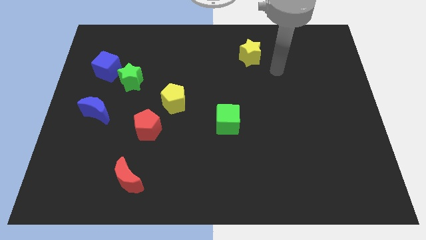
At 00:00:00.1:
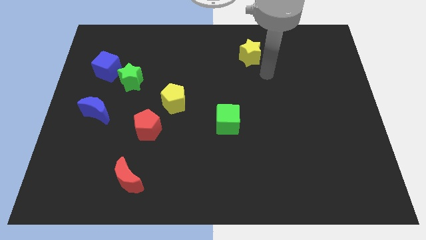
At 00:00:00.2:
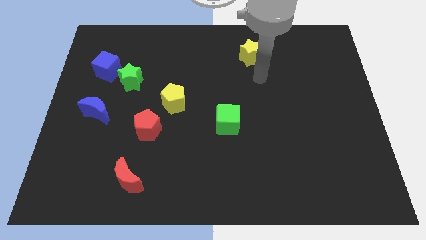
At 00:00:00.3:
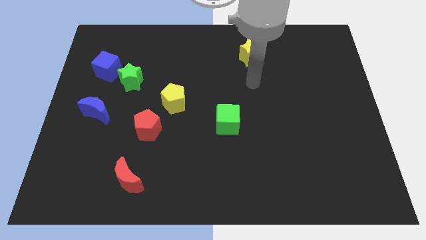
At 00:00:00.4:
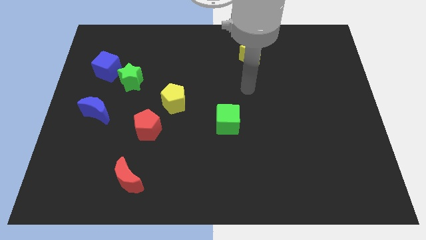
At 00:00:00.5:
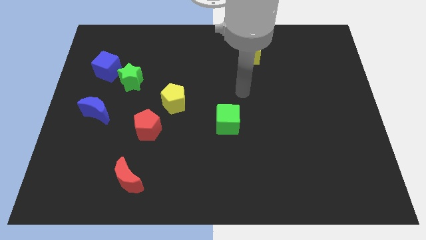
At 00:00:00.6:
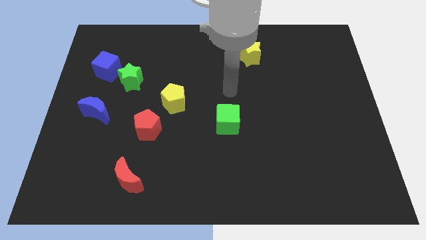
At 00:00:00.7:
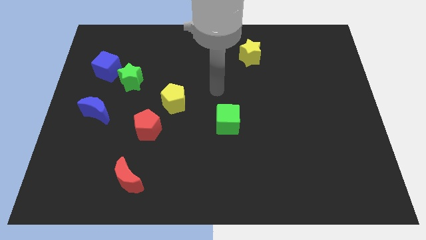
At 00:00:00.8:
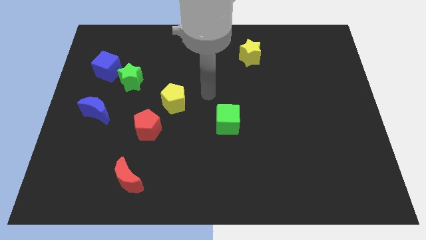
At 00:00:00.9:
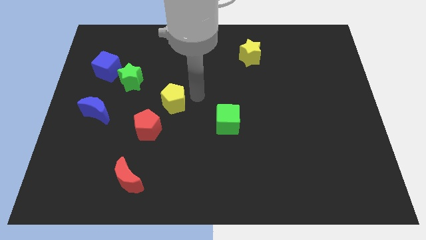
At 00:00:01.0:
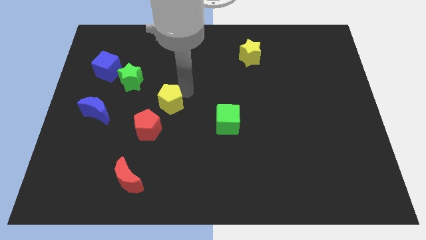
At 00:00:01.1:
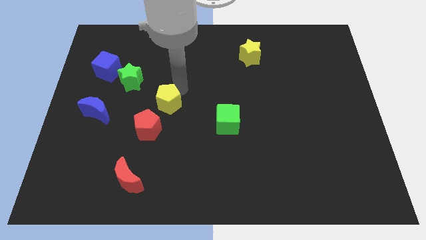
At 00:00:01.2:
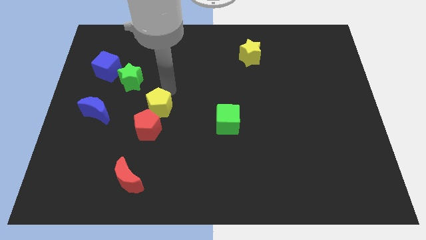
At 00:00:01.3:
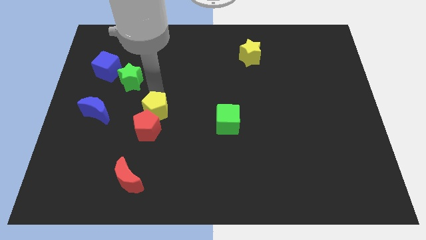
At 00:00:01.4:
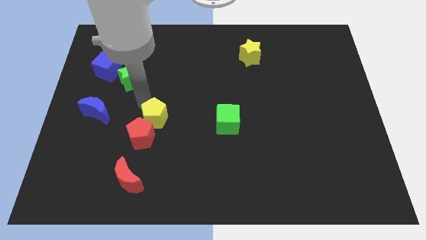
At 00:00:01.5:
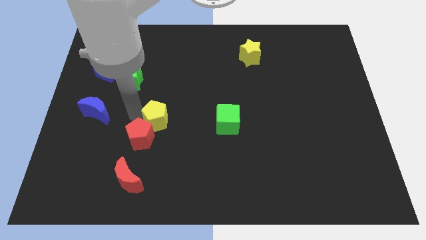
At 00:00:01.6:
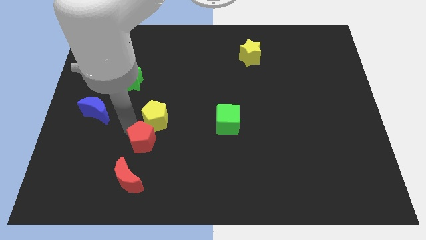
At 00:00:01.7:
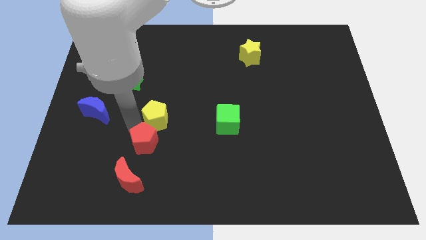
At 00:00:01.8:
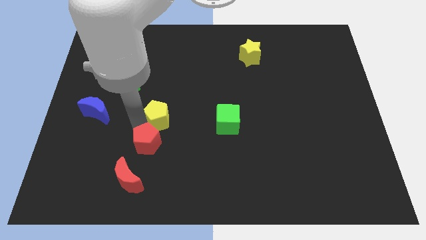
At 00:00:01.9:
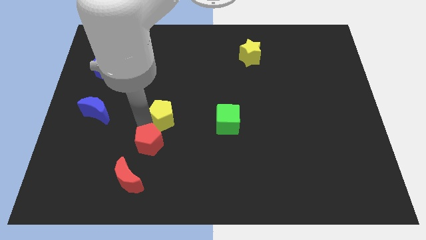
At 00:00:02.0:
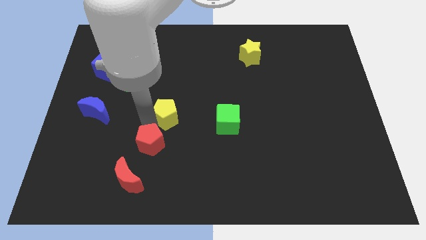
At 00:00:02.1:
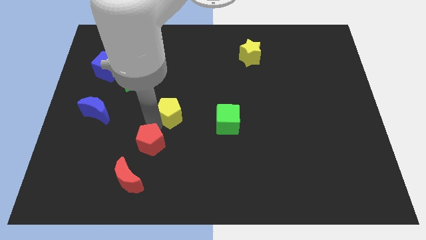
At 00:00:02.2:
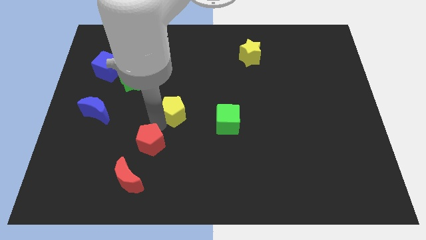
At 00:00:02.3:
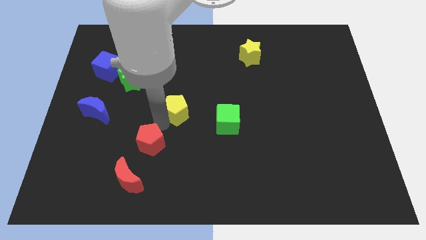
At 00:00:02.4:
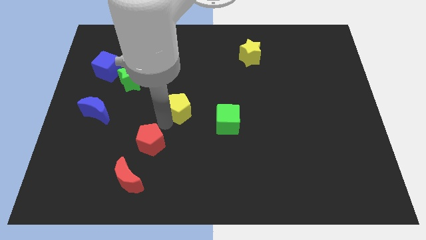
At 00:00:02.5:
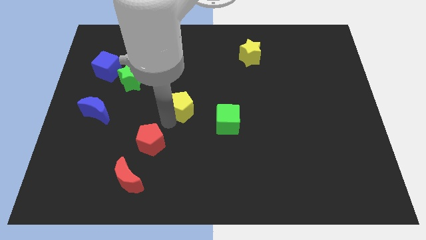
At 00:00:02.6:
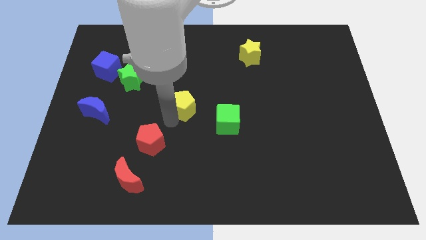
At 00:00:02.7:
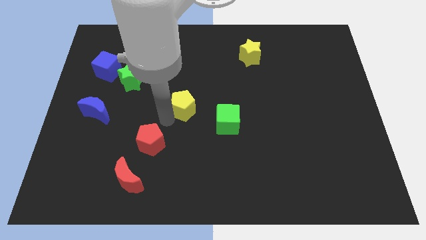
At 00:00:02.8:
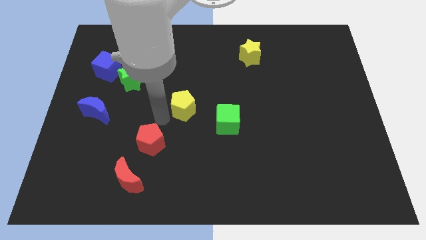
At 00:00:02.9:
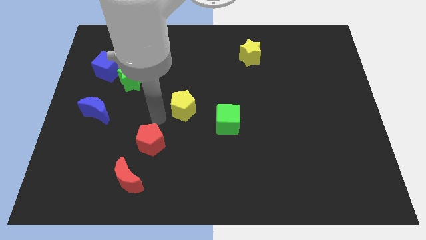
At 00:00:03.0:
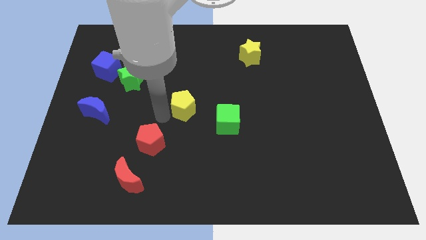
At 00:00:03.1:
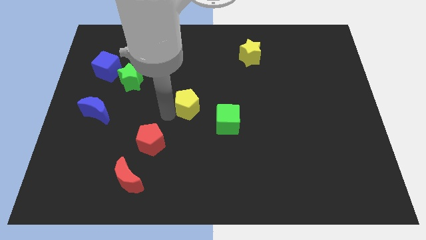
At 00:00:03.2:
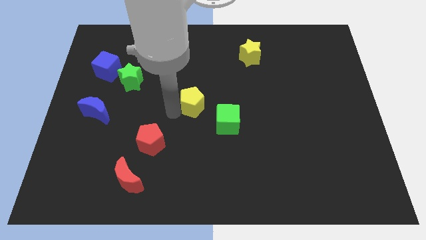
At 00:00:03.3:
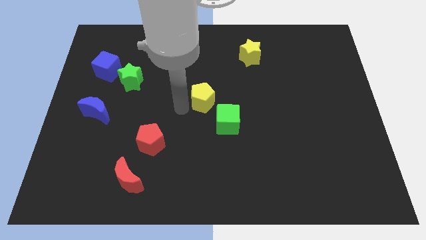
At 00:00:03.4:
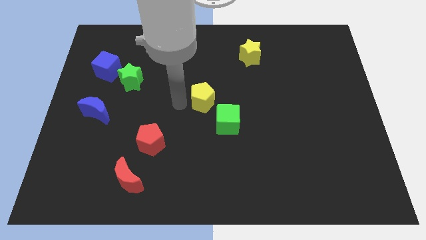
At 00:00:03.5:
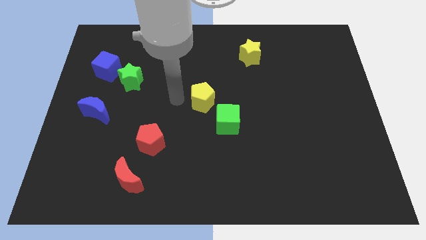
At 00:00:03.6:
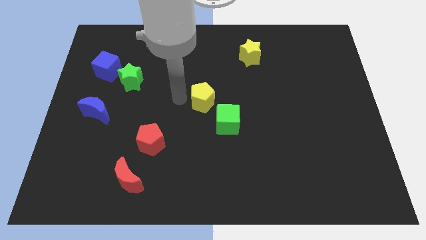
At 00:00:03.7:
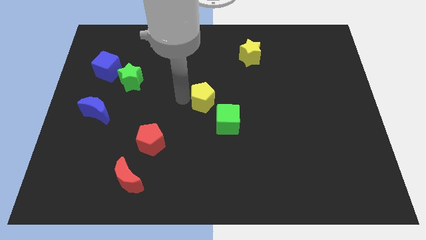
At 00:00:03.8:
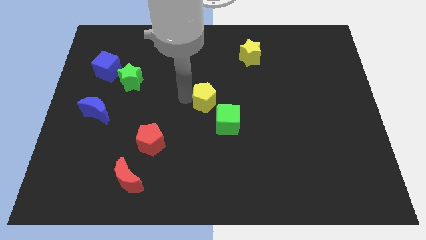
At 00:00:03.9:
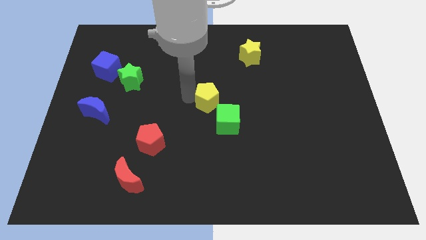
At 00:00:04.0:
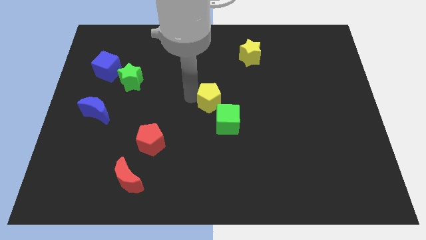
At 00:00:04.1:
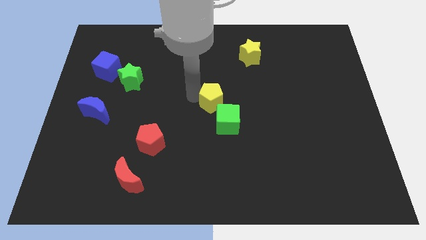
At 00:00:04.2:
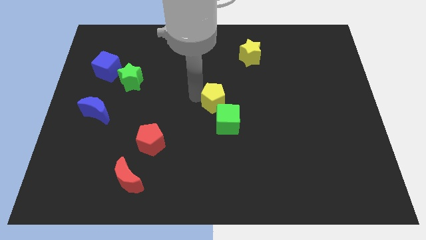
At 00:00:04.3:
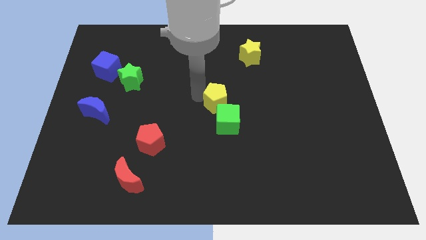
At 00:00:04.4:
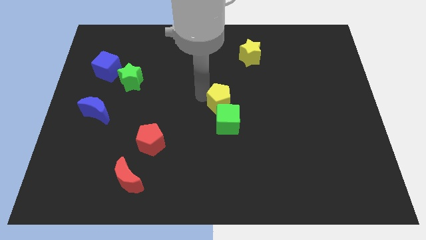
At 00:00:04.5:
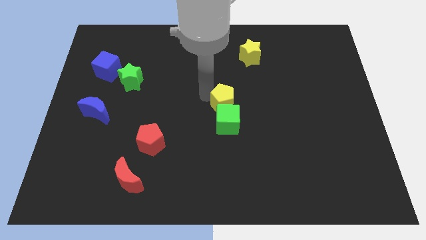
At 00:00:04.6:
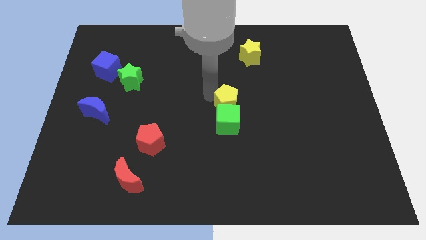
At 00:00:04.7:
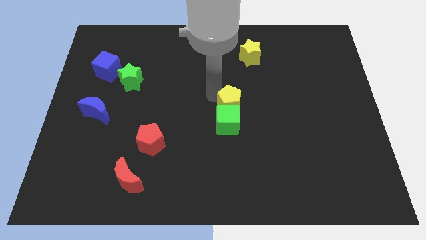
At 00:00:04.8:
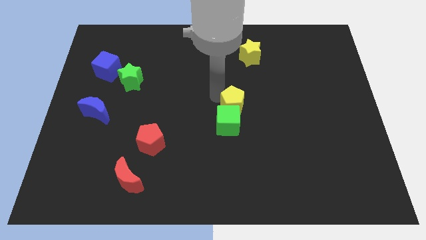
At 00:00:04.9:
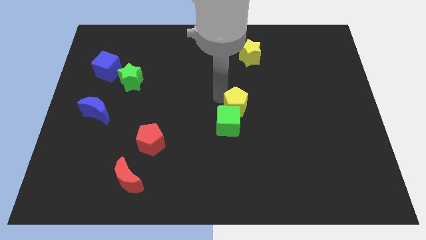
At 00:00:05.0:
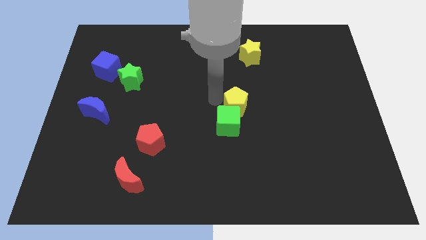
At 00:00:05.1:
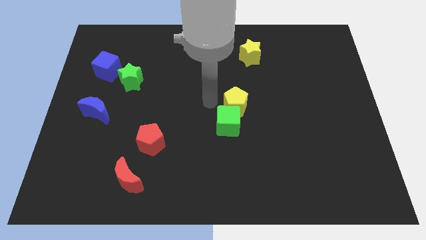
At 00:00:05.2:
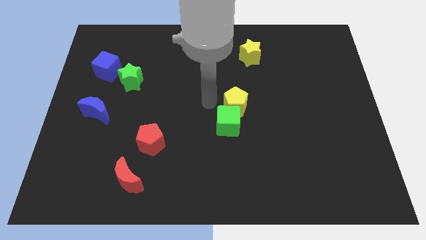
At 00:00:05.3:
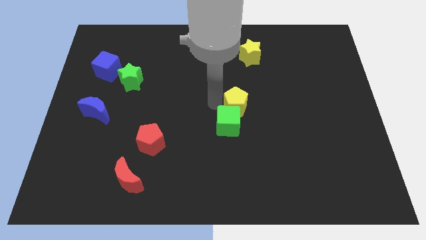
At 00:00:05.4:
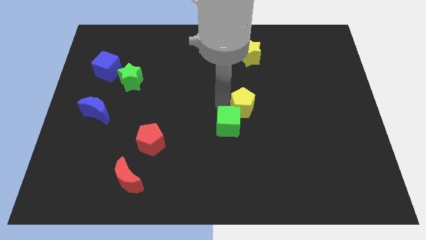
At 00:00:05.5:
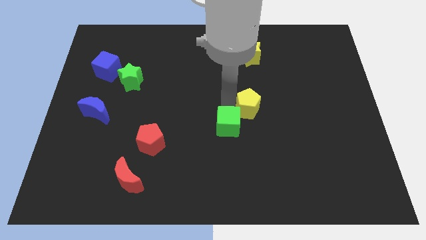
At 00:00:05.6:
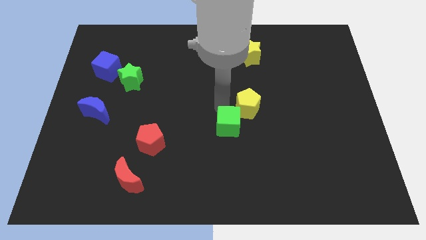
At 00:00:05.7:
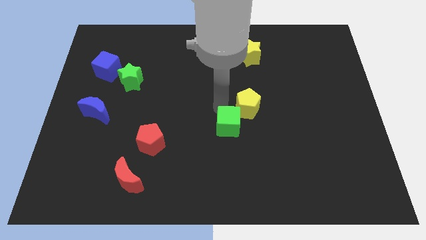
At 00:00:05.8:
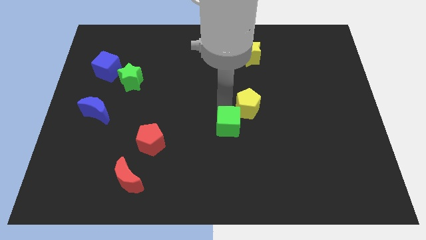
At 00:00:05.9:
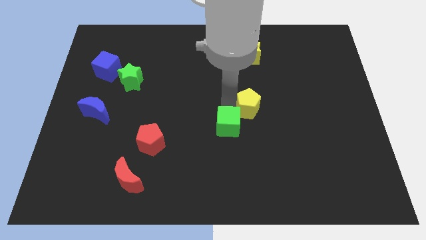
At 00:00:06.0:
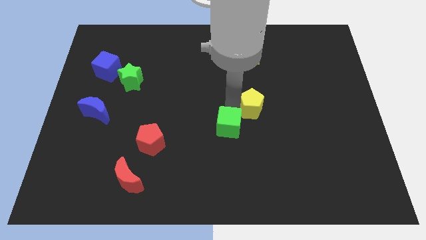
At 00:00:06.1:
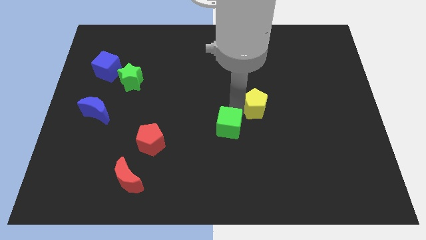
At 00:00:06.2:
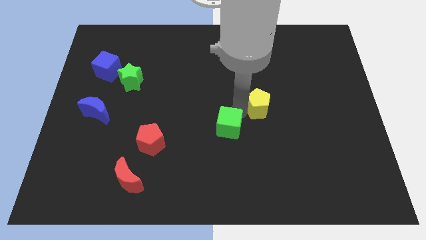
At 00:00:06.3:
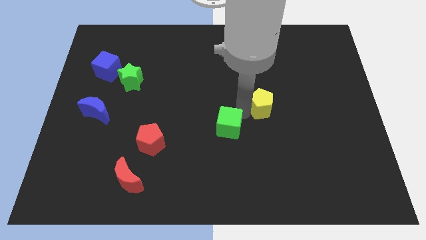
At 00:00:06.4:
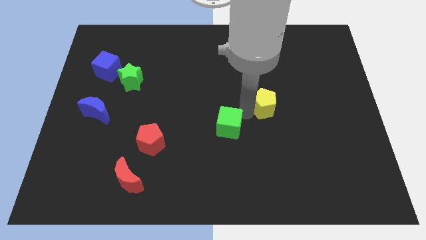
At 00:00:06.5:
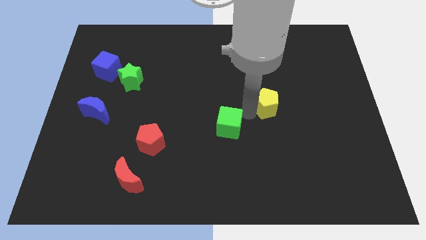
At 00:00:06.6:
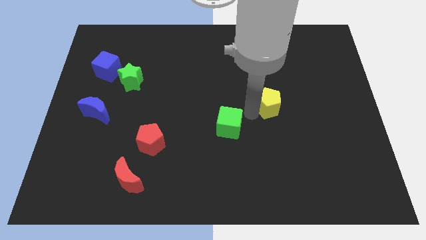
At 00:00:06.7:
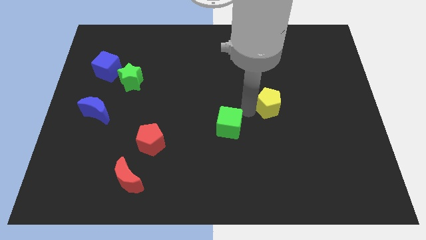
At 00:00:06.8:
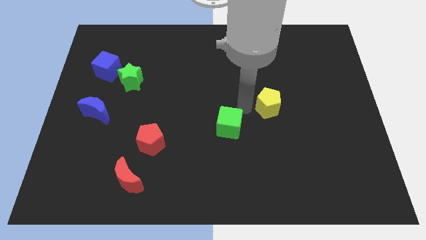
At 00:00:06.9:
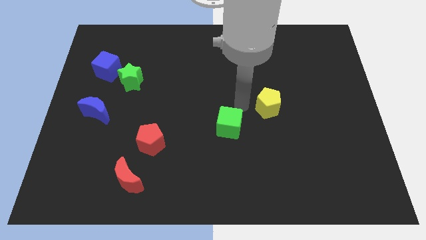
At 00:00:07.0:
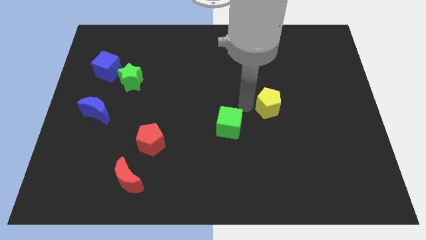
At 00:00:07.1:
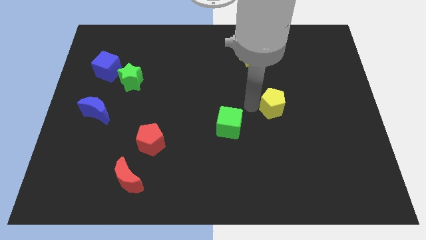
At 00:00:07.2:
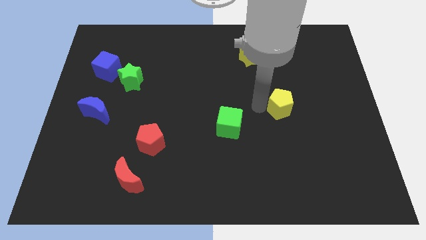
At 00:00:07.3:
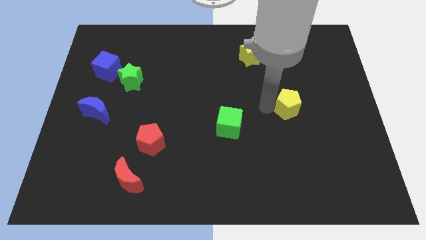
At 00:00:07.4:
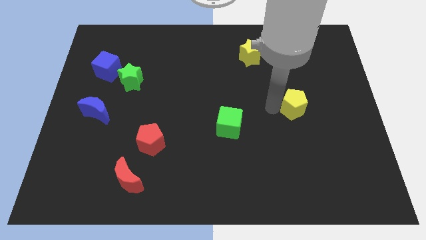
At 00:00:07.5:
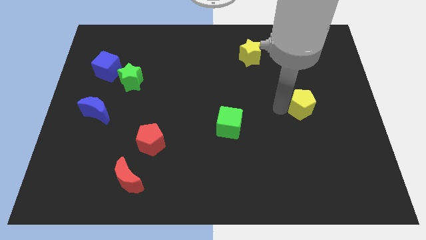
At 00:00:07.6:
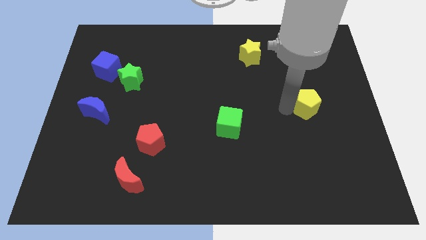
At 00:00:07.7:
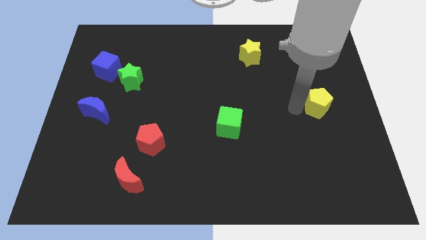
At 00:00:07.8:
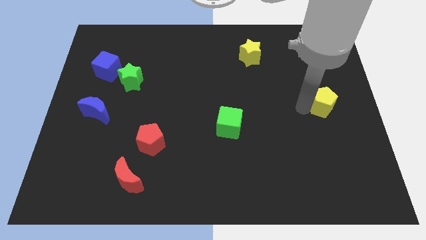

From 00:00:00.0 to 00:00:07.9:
slide the yellow pentagon to the right side of the board
